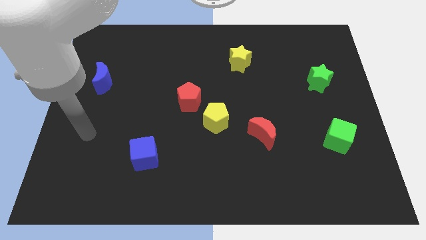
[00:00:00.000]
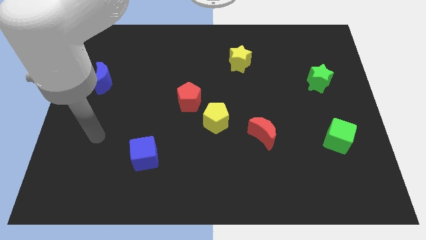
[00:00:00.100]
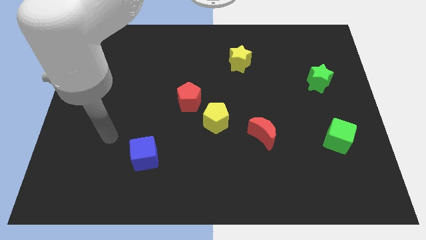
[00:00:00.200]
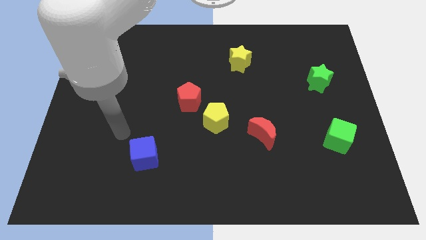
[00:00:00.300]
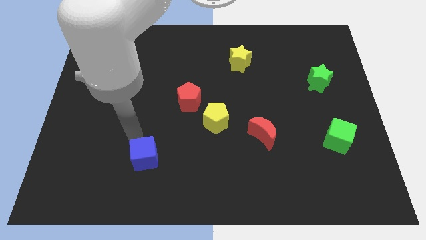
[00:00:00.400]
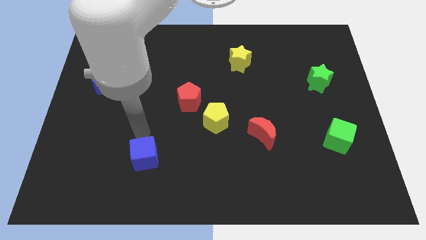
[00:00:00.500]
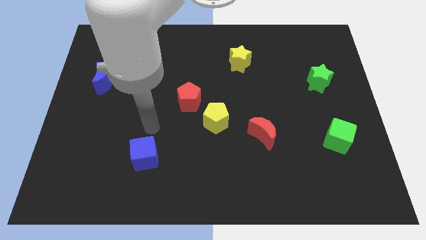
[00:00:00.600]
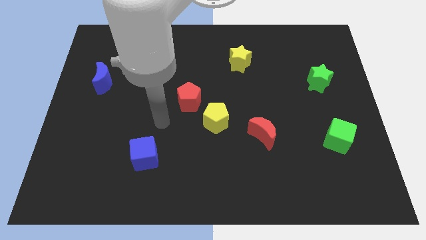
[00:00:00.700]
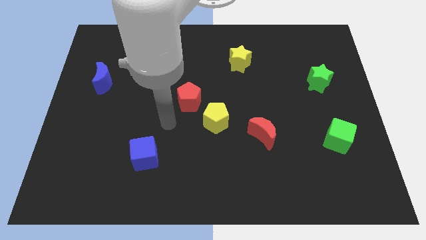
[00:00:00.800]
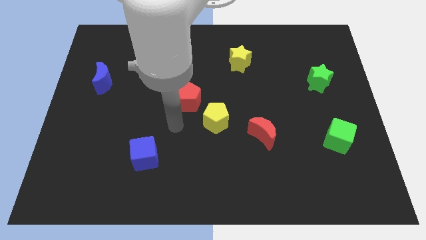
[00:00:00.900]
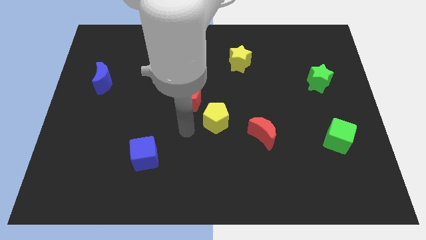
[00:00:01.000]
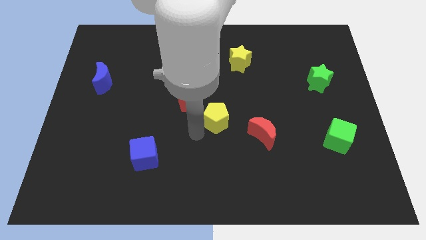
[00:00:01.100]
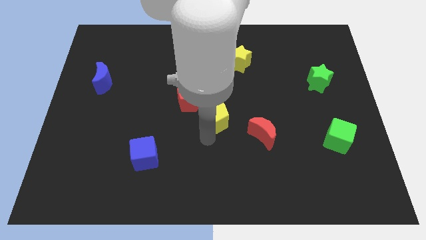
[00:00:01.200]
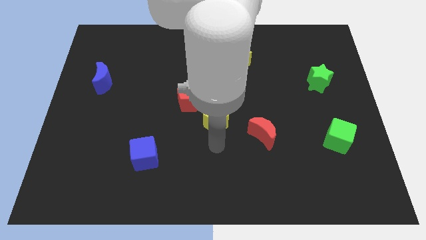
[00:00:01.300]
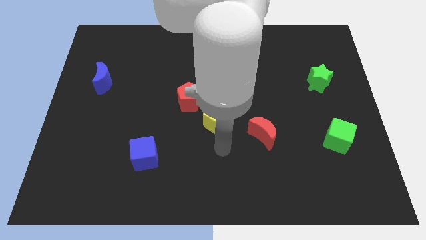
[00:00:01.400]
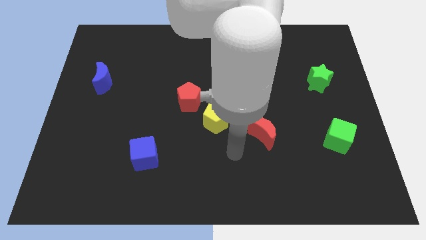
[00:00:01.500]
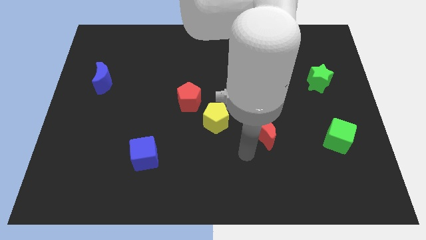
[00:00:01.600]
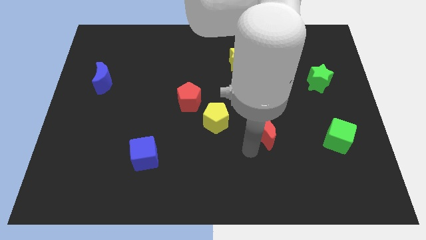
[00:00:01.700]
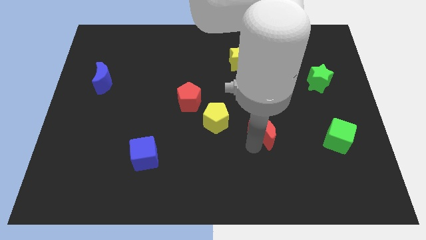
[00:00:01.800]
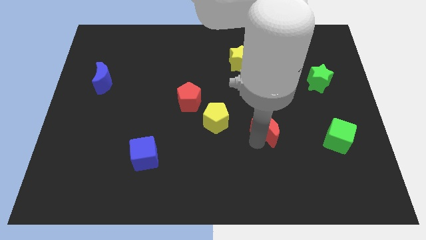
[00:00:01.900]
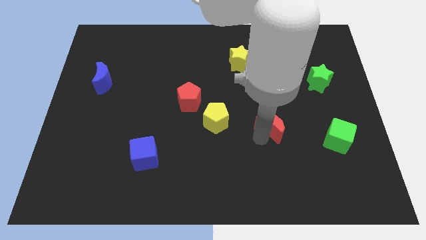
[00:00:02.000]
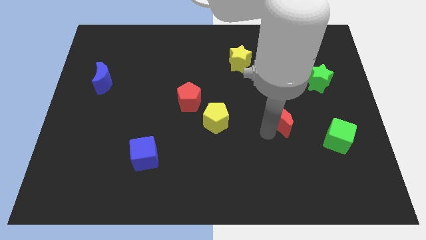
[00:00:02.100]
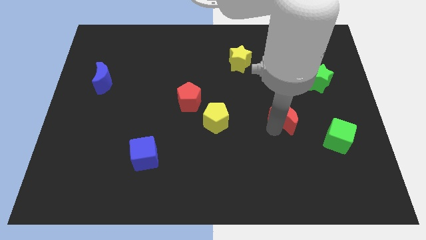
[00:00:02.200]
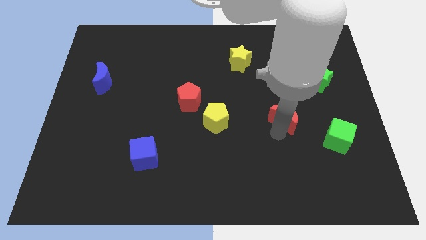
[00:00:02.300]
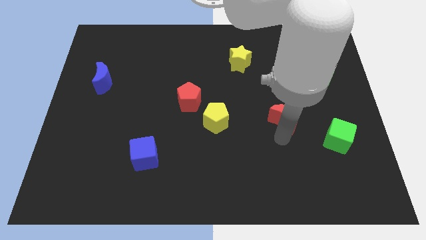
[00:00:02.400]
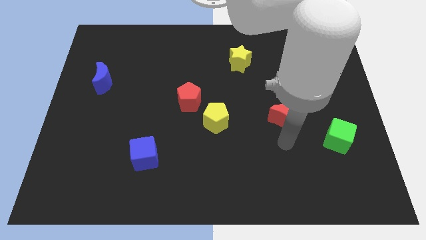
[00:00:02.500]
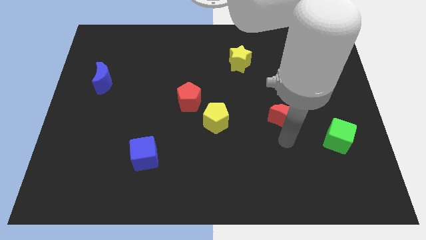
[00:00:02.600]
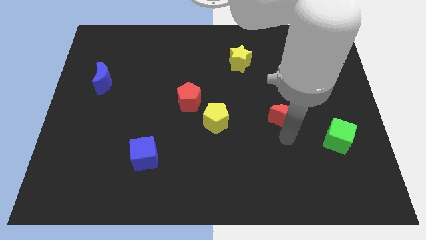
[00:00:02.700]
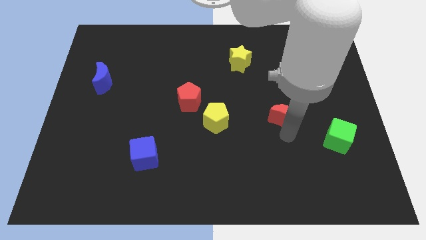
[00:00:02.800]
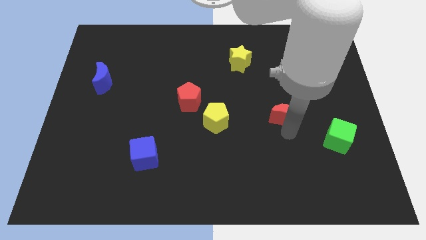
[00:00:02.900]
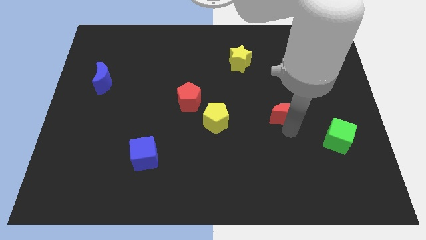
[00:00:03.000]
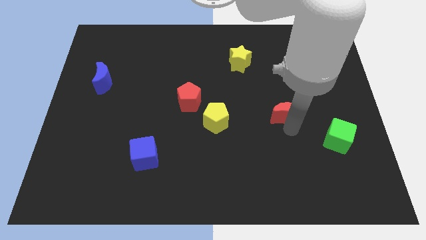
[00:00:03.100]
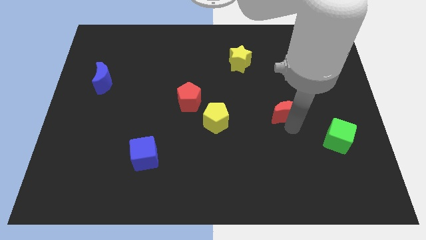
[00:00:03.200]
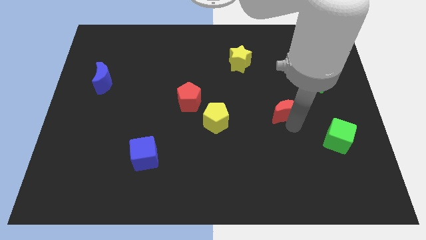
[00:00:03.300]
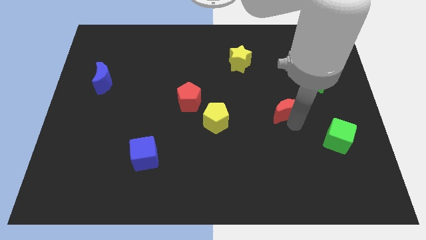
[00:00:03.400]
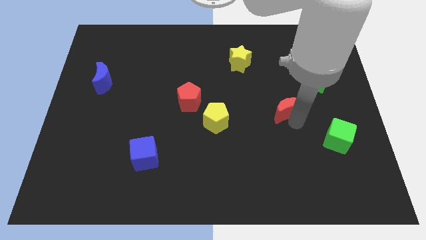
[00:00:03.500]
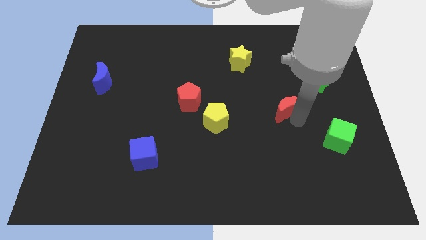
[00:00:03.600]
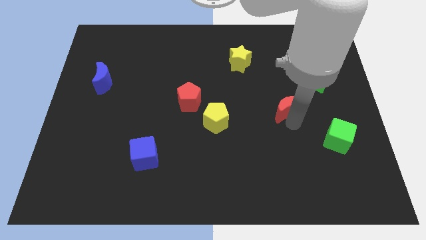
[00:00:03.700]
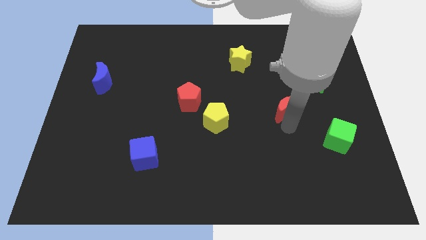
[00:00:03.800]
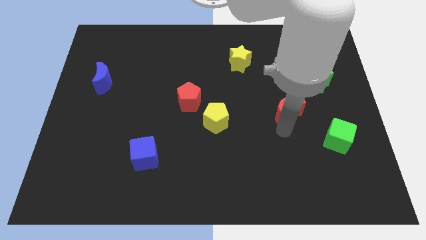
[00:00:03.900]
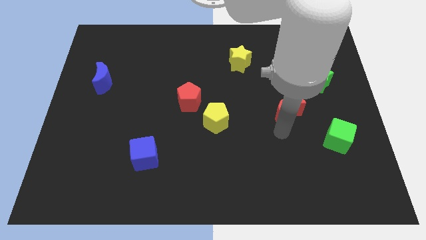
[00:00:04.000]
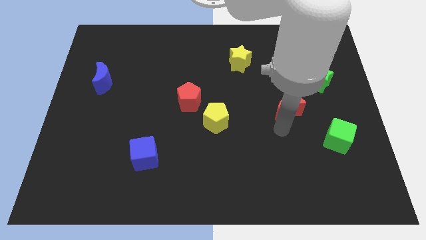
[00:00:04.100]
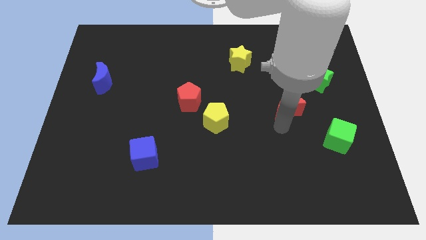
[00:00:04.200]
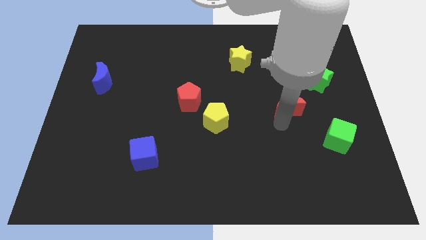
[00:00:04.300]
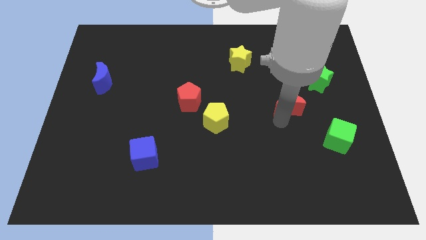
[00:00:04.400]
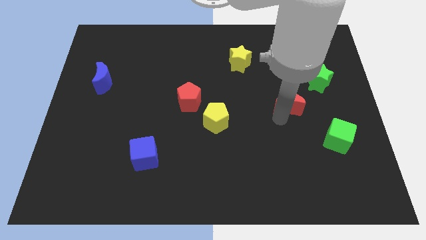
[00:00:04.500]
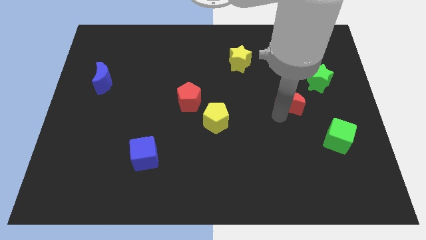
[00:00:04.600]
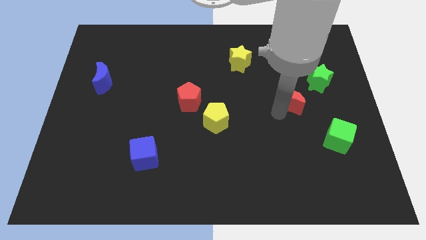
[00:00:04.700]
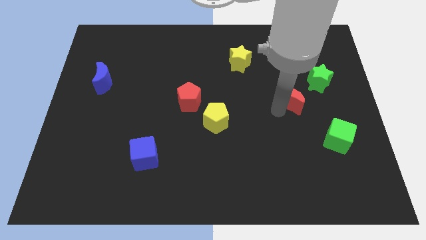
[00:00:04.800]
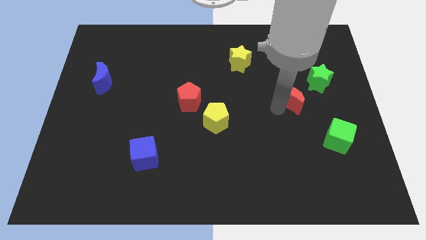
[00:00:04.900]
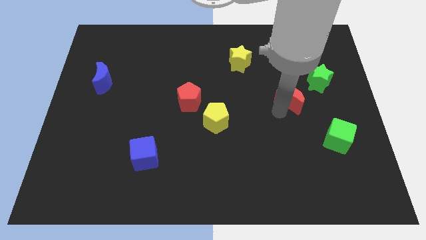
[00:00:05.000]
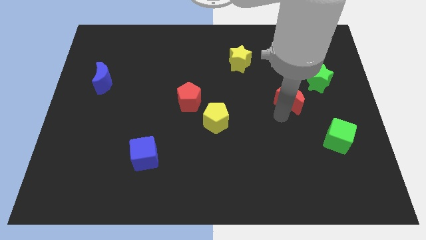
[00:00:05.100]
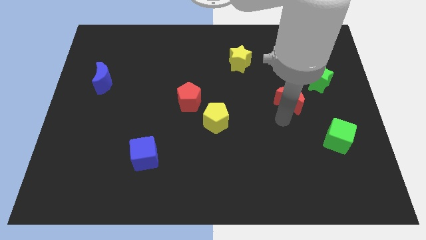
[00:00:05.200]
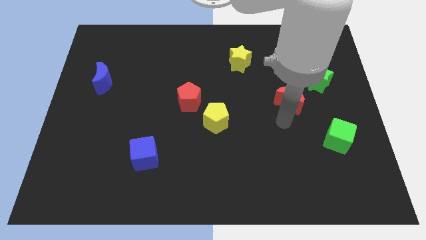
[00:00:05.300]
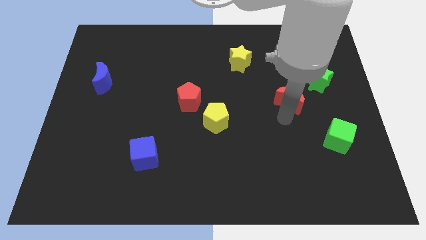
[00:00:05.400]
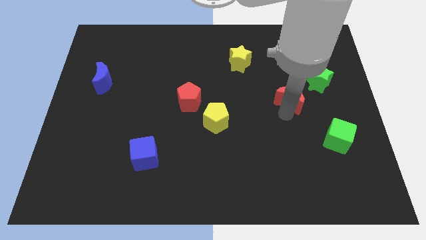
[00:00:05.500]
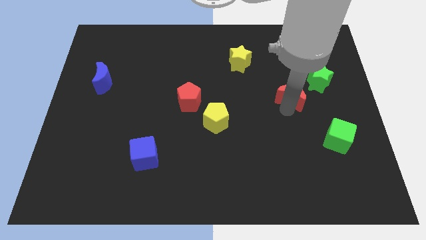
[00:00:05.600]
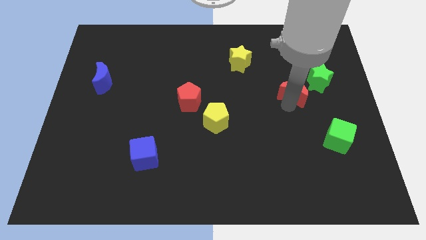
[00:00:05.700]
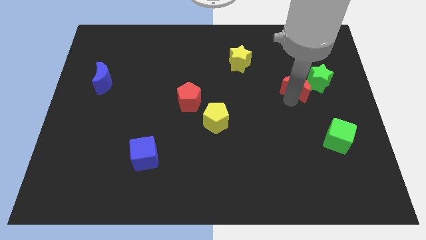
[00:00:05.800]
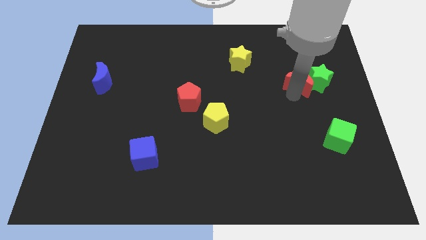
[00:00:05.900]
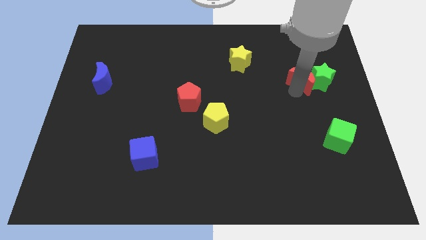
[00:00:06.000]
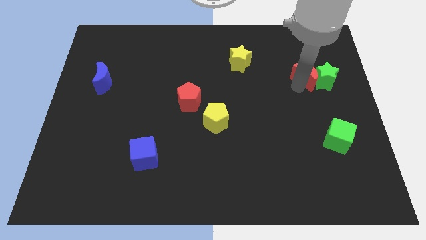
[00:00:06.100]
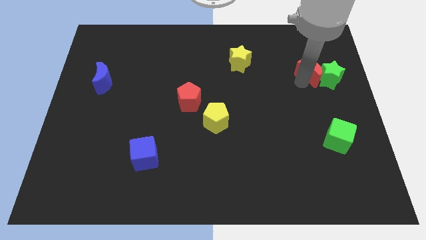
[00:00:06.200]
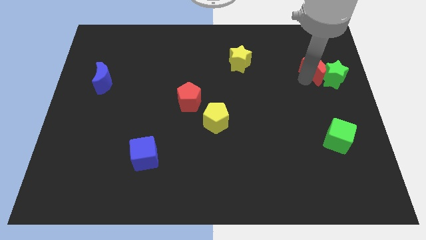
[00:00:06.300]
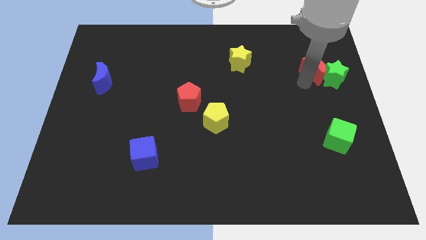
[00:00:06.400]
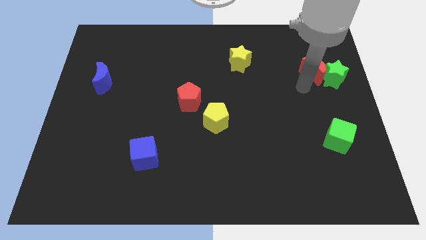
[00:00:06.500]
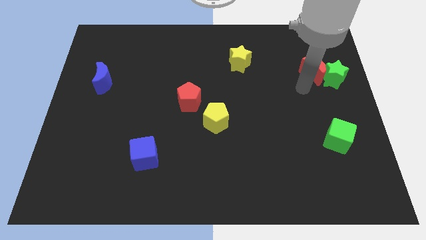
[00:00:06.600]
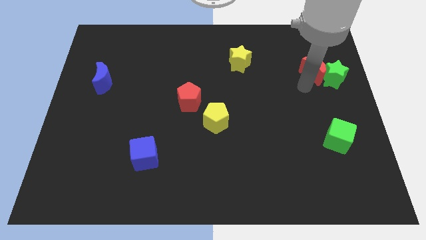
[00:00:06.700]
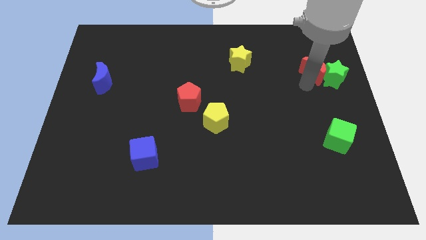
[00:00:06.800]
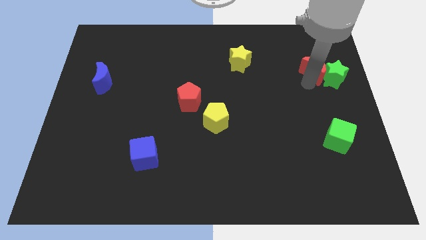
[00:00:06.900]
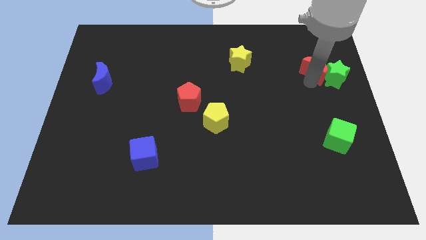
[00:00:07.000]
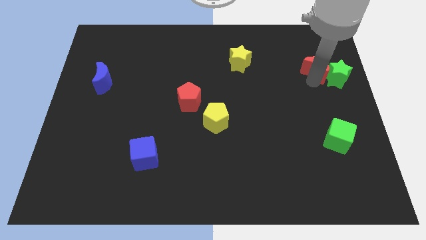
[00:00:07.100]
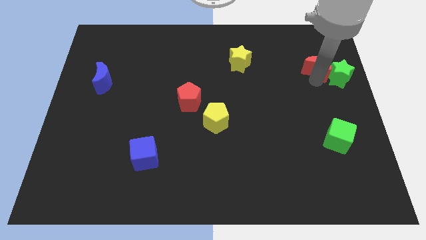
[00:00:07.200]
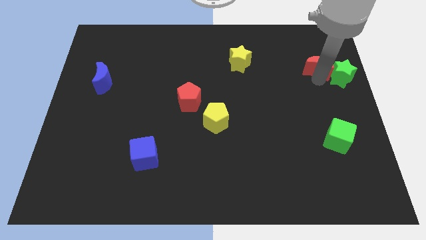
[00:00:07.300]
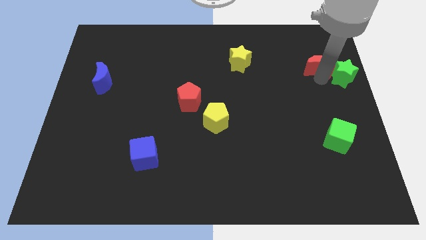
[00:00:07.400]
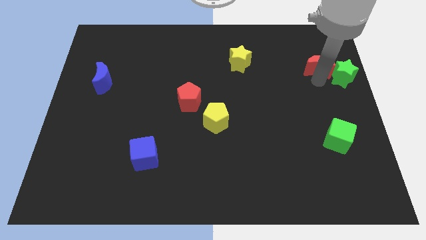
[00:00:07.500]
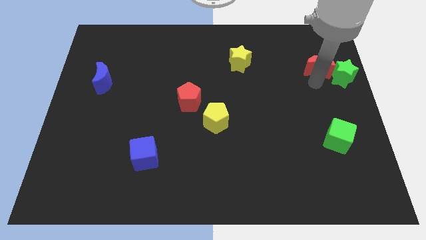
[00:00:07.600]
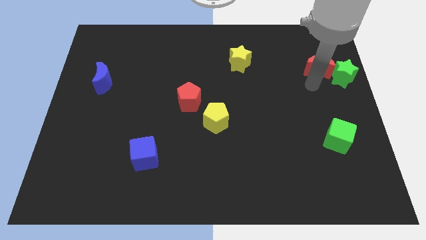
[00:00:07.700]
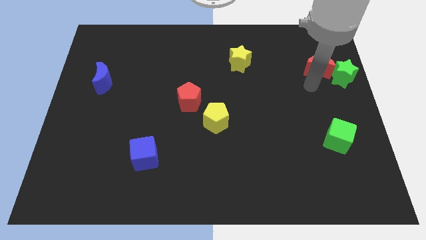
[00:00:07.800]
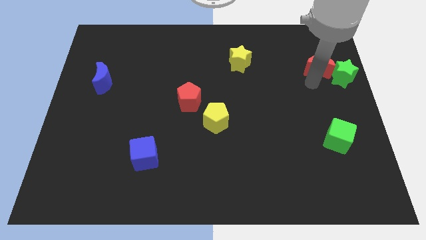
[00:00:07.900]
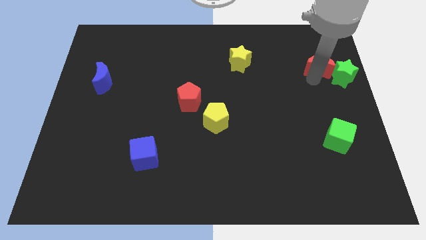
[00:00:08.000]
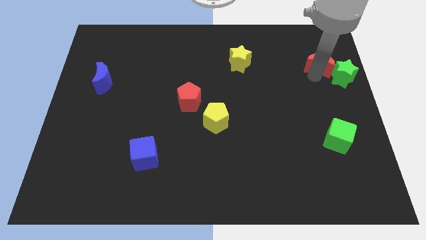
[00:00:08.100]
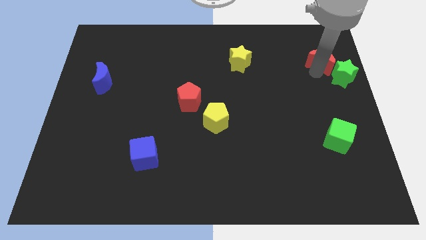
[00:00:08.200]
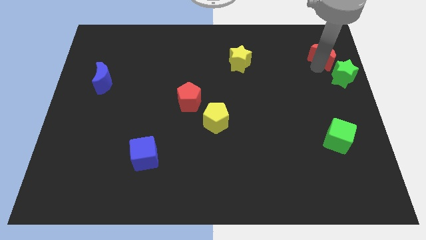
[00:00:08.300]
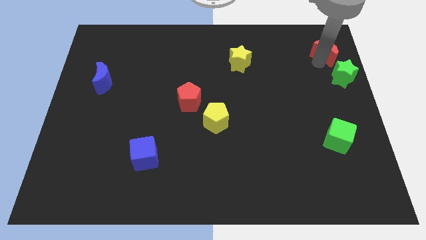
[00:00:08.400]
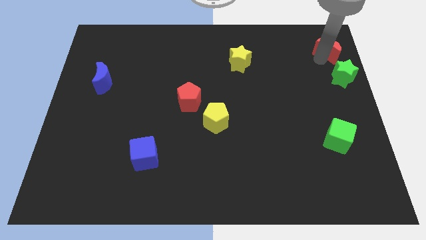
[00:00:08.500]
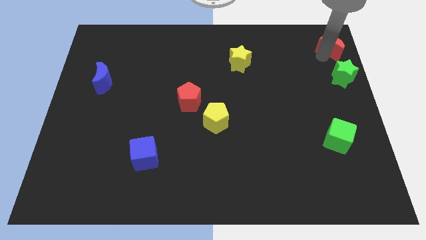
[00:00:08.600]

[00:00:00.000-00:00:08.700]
push the red moon to the top right corner
